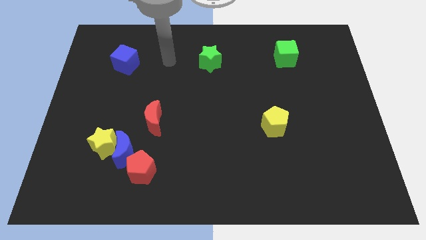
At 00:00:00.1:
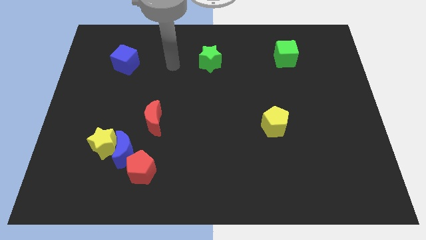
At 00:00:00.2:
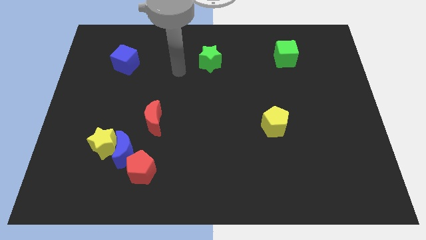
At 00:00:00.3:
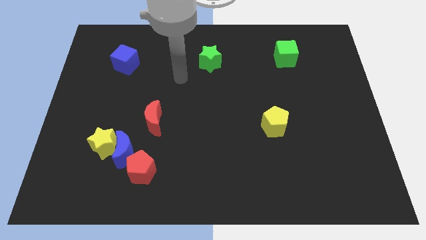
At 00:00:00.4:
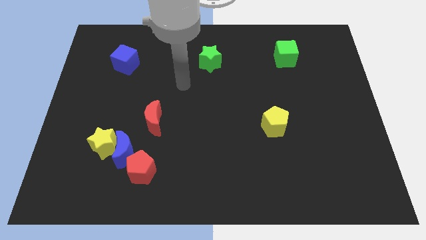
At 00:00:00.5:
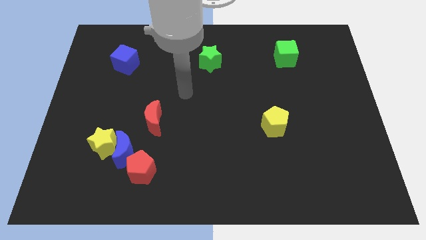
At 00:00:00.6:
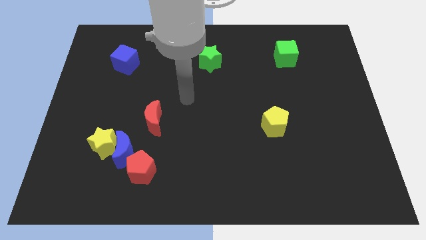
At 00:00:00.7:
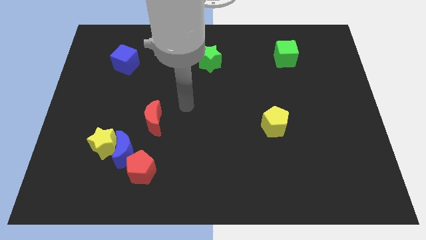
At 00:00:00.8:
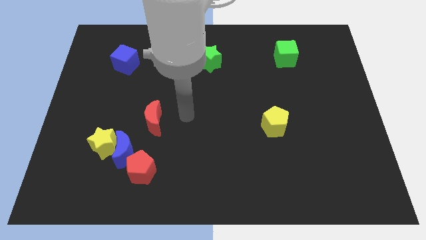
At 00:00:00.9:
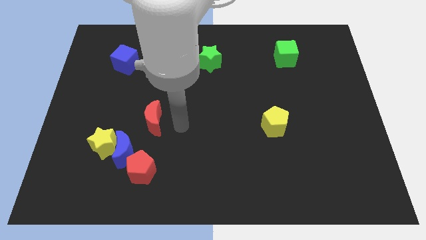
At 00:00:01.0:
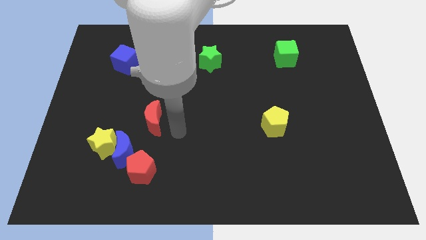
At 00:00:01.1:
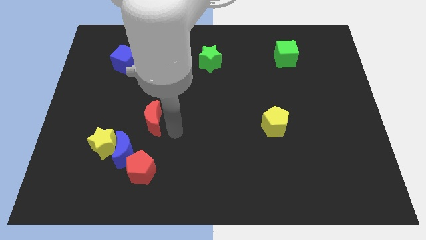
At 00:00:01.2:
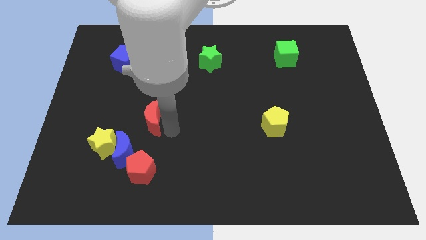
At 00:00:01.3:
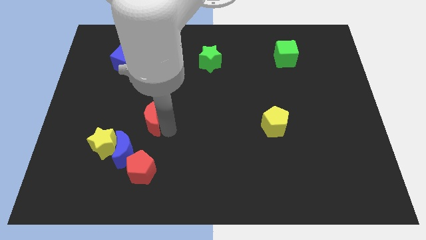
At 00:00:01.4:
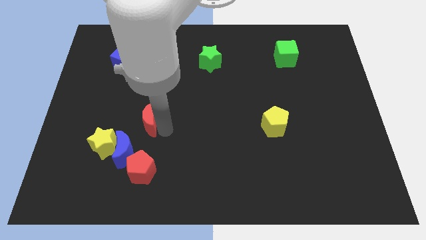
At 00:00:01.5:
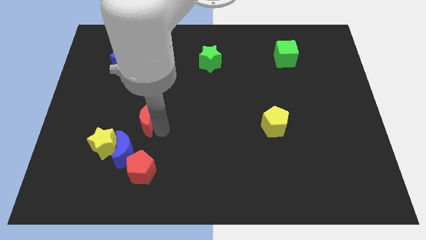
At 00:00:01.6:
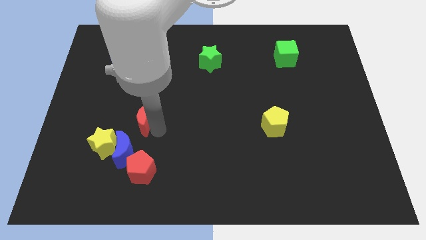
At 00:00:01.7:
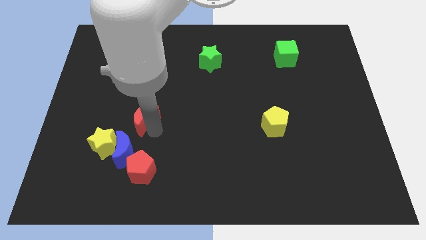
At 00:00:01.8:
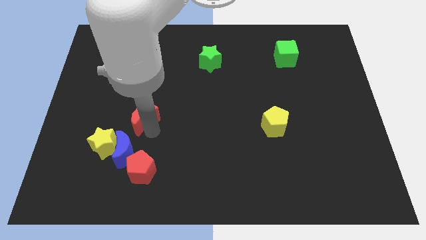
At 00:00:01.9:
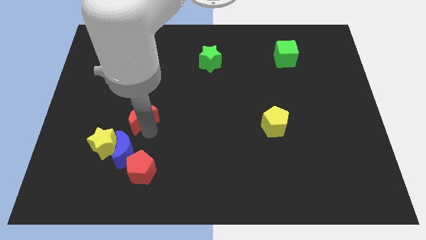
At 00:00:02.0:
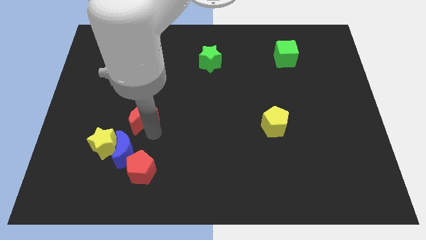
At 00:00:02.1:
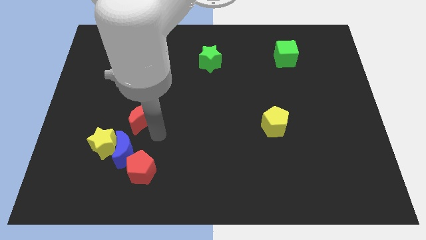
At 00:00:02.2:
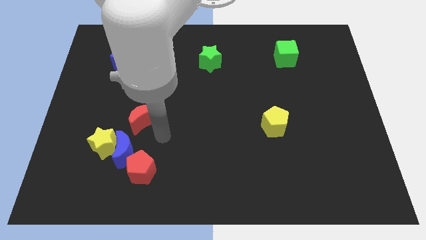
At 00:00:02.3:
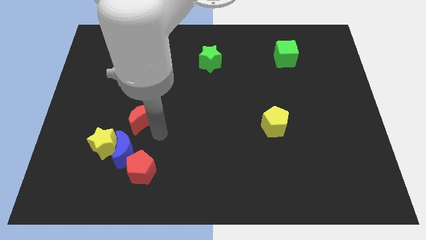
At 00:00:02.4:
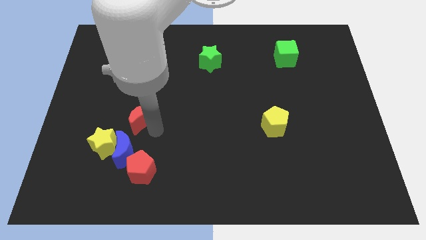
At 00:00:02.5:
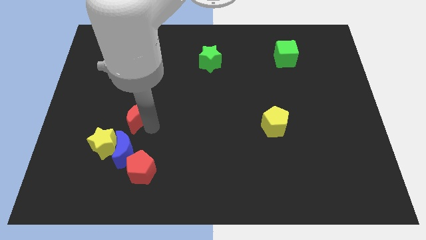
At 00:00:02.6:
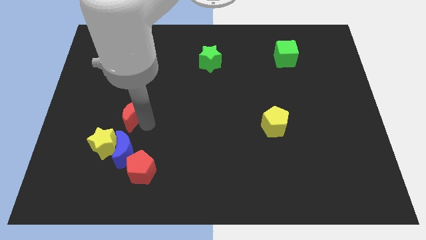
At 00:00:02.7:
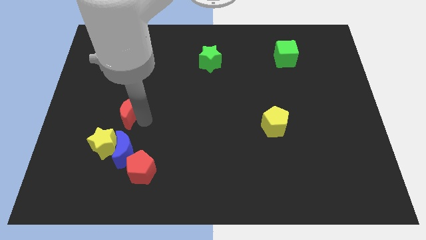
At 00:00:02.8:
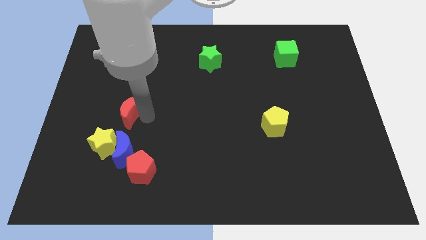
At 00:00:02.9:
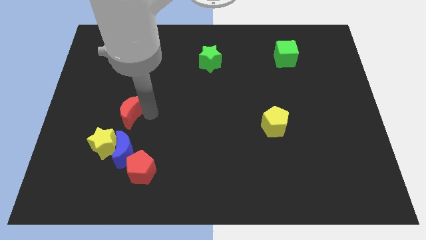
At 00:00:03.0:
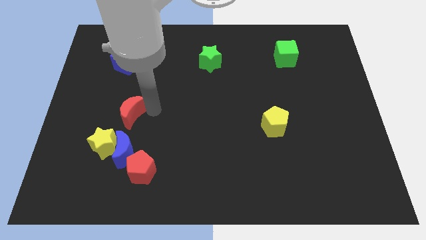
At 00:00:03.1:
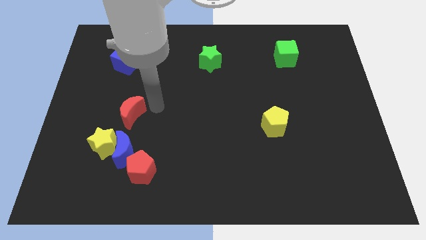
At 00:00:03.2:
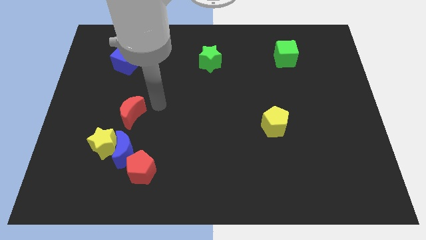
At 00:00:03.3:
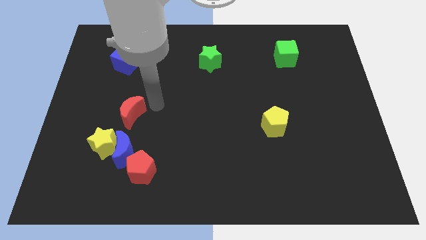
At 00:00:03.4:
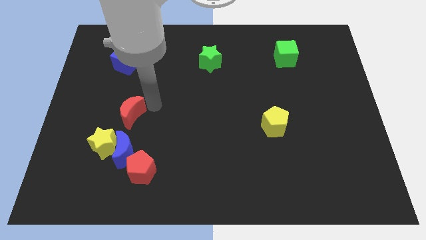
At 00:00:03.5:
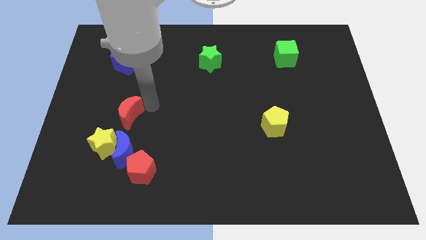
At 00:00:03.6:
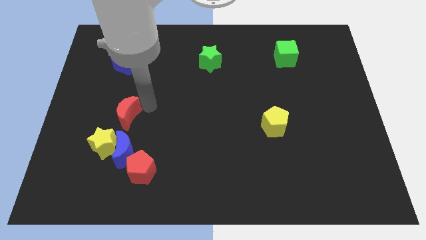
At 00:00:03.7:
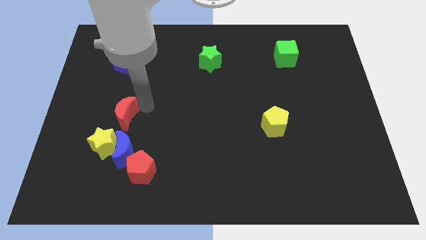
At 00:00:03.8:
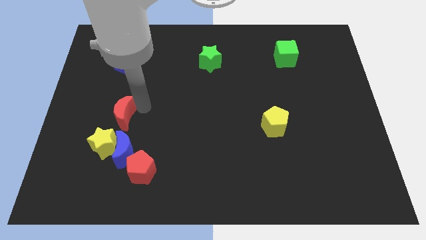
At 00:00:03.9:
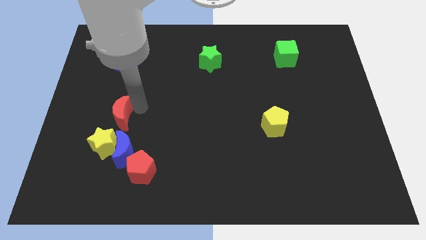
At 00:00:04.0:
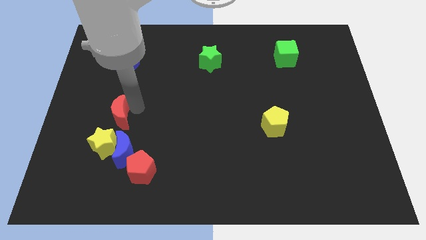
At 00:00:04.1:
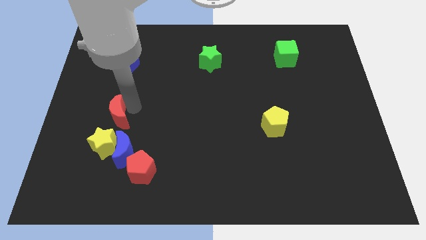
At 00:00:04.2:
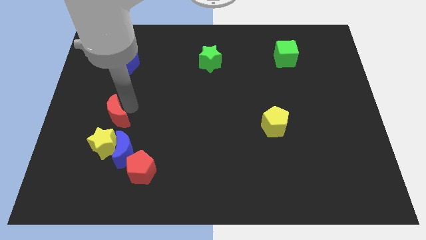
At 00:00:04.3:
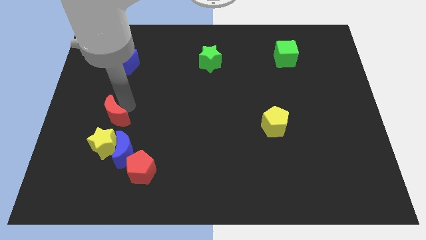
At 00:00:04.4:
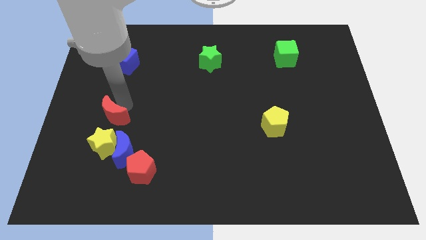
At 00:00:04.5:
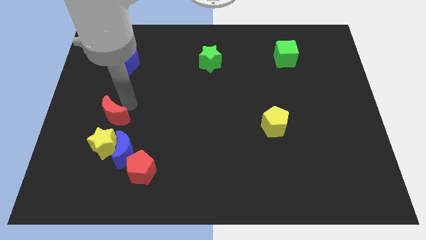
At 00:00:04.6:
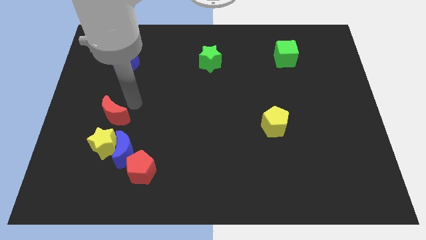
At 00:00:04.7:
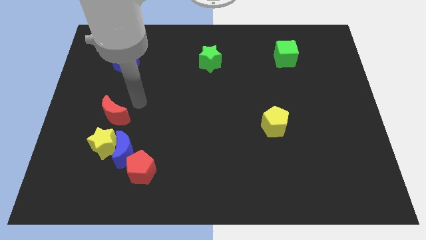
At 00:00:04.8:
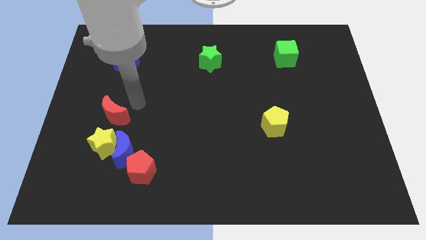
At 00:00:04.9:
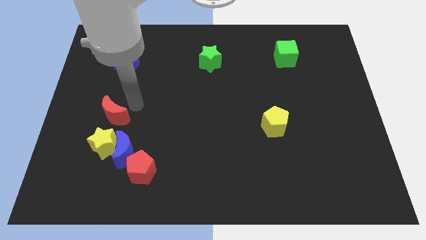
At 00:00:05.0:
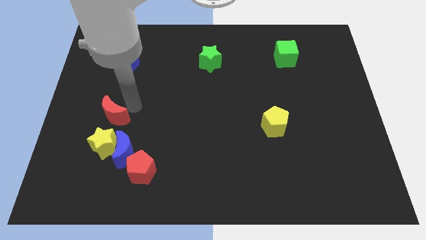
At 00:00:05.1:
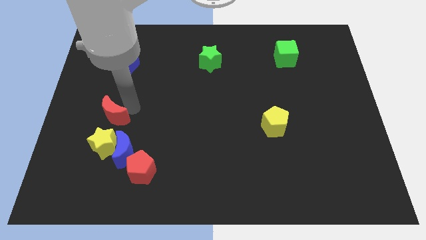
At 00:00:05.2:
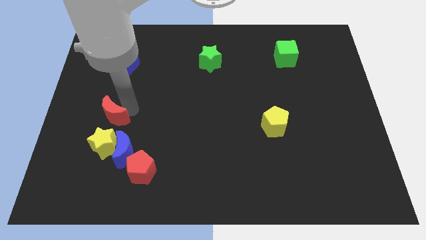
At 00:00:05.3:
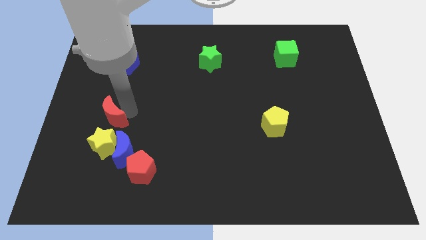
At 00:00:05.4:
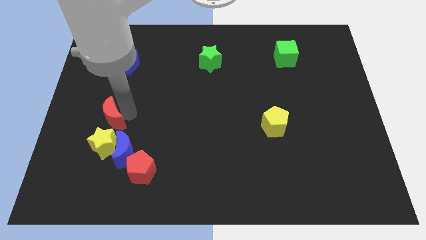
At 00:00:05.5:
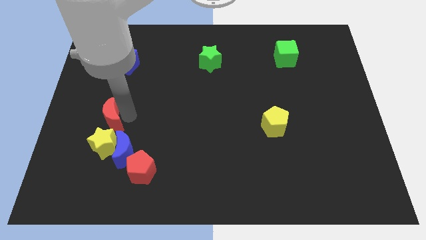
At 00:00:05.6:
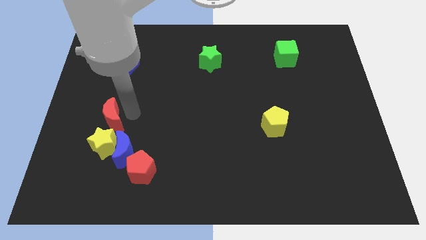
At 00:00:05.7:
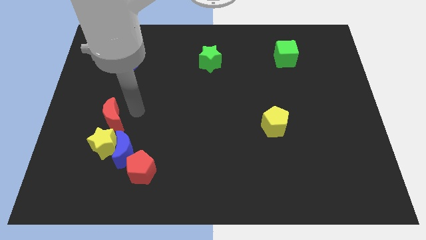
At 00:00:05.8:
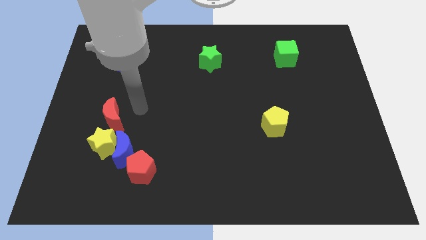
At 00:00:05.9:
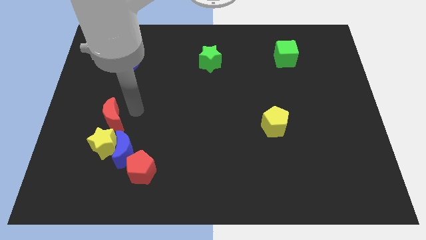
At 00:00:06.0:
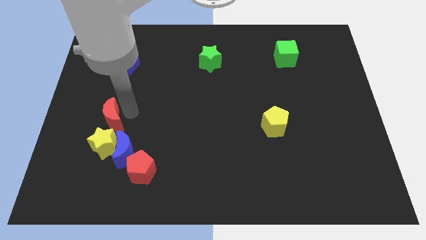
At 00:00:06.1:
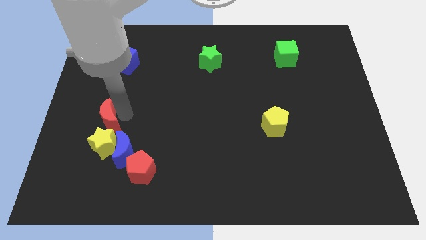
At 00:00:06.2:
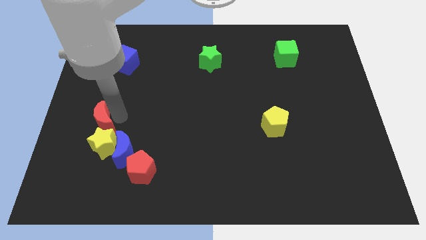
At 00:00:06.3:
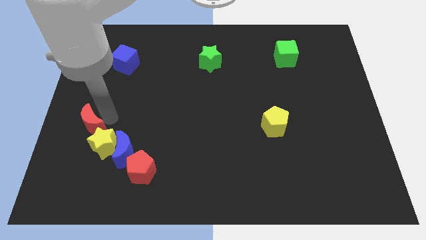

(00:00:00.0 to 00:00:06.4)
move the red moon a little bit diagonally downwards and left

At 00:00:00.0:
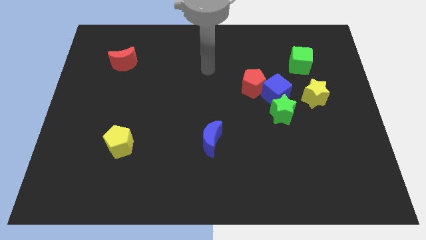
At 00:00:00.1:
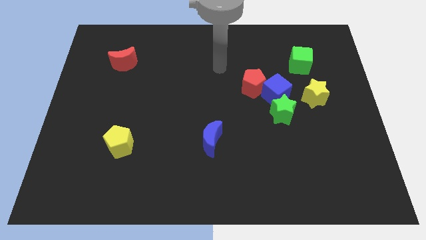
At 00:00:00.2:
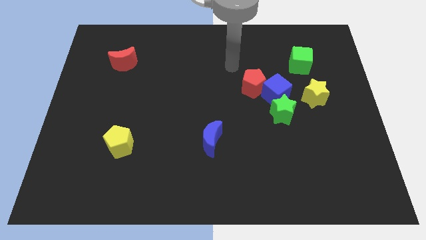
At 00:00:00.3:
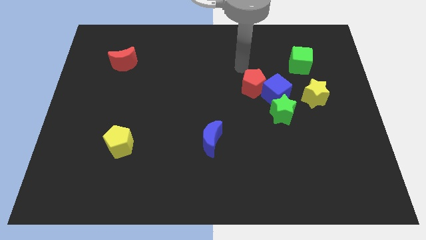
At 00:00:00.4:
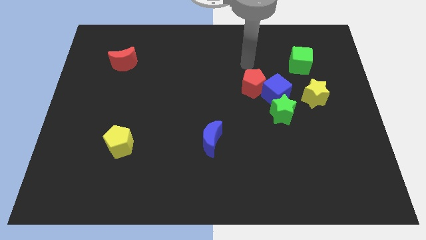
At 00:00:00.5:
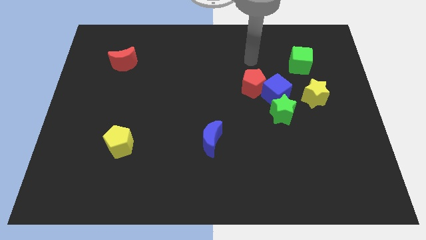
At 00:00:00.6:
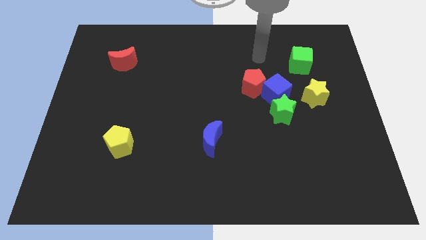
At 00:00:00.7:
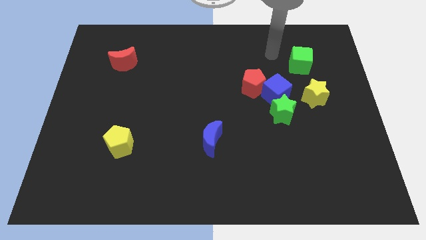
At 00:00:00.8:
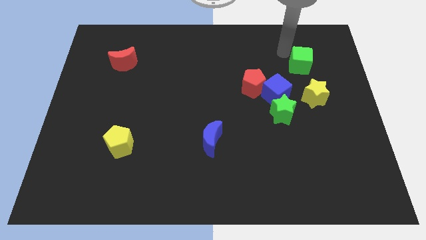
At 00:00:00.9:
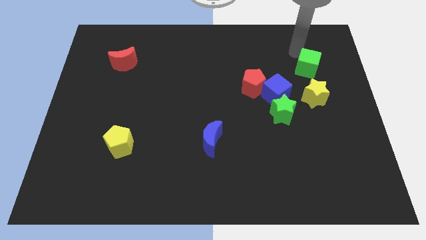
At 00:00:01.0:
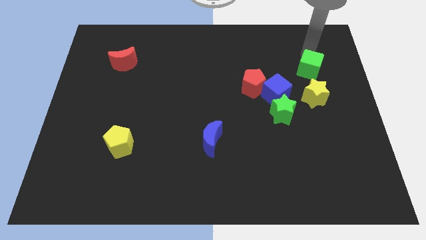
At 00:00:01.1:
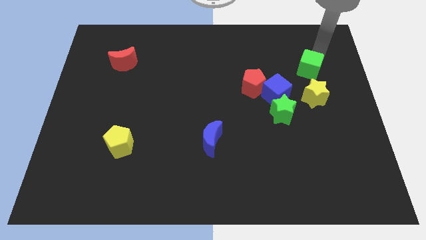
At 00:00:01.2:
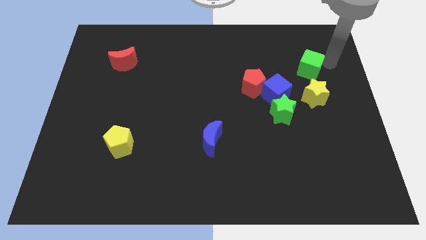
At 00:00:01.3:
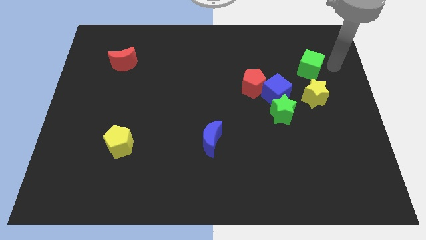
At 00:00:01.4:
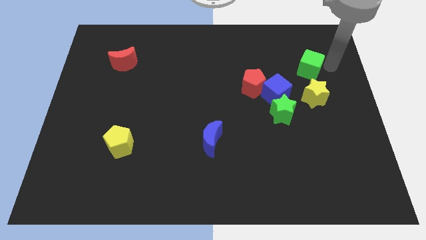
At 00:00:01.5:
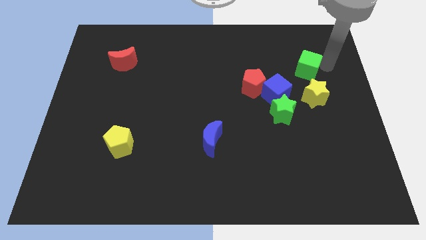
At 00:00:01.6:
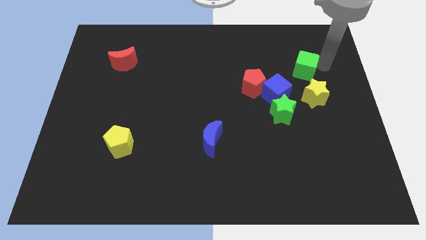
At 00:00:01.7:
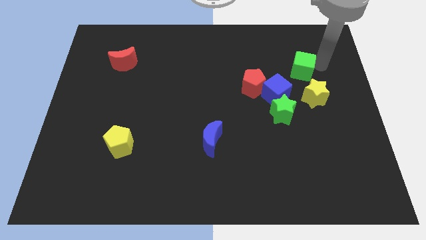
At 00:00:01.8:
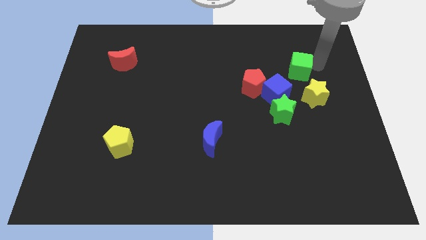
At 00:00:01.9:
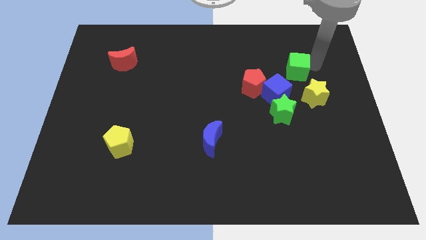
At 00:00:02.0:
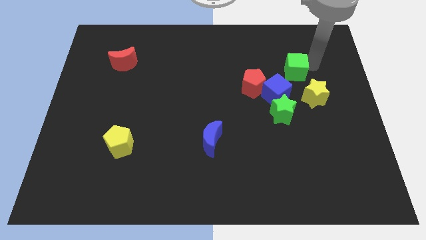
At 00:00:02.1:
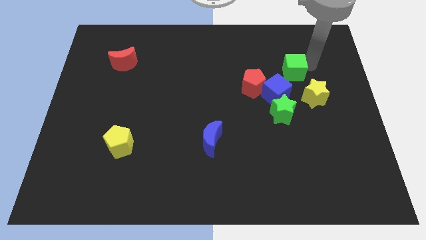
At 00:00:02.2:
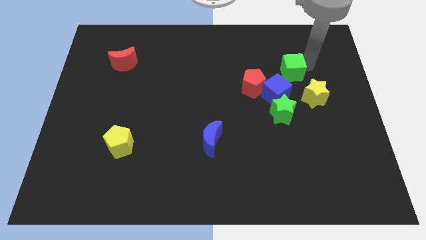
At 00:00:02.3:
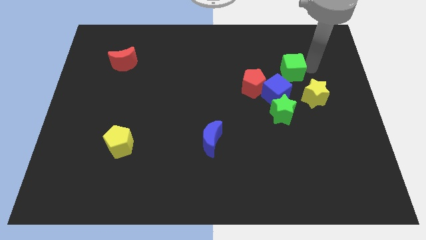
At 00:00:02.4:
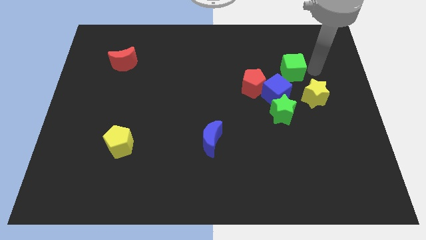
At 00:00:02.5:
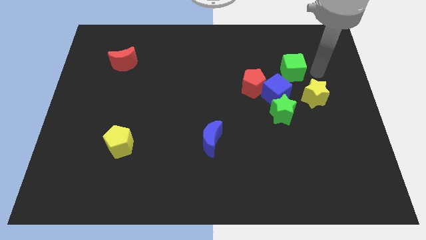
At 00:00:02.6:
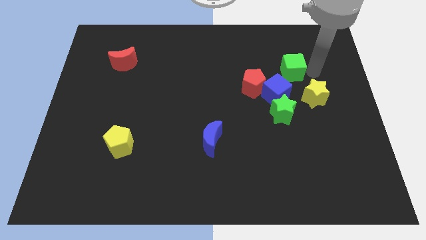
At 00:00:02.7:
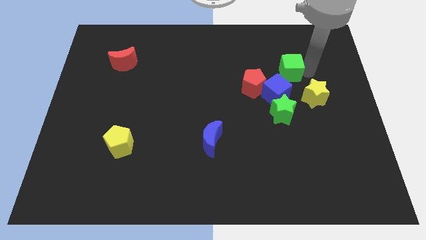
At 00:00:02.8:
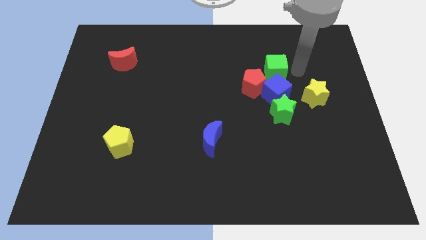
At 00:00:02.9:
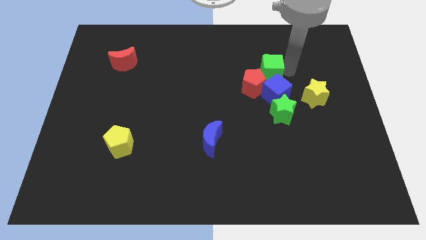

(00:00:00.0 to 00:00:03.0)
slide the green cube downwards and left diagonally slightly
